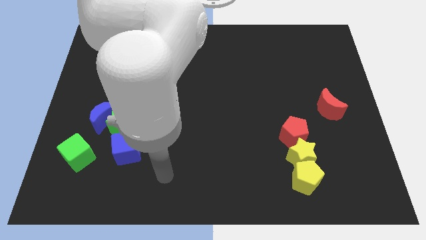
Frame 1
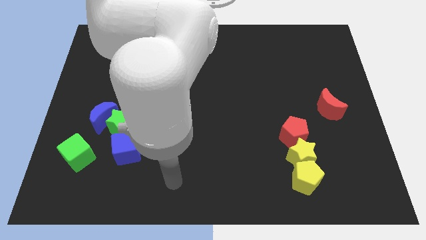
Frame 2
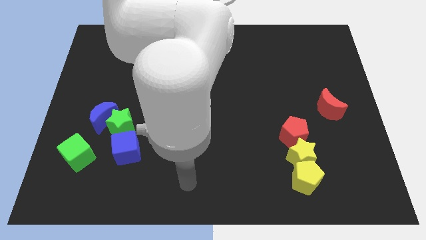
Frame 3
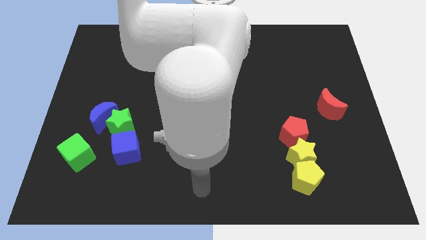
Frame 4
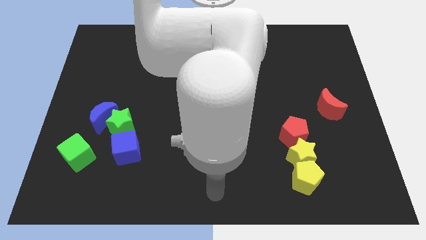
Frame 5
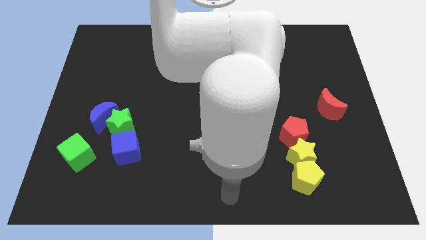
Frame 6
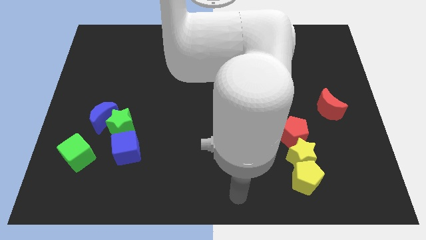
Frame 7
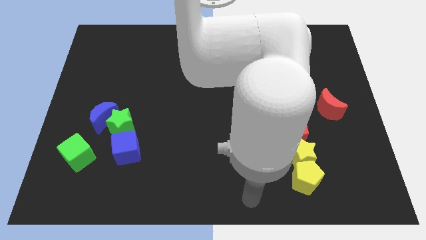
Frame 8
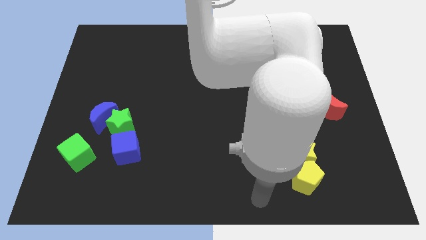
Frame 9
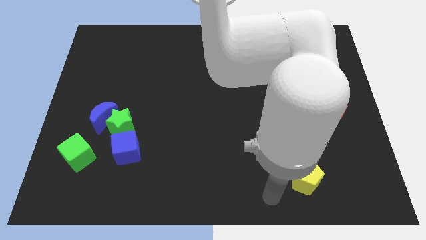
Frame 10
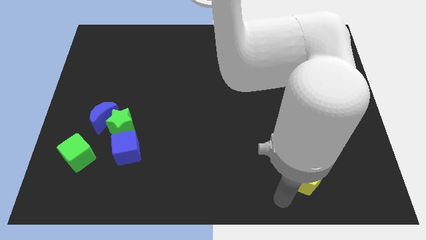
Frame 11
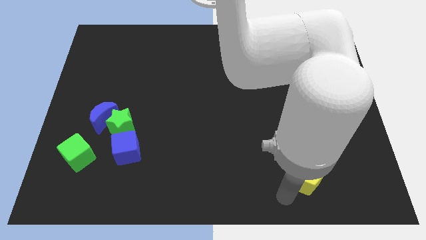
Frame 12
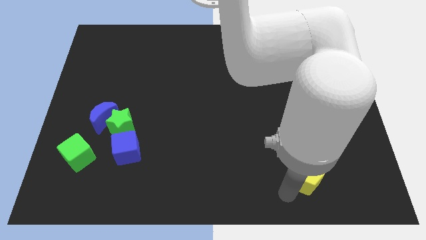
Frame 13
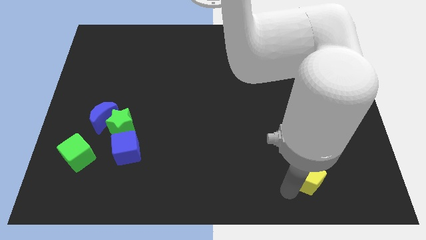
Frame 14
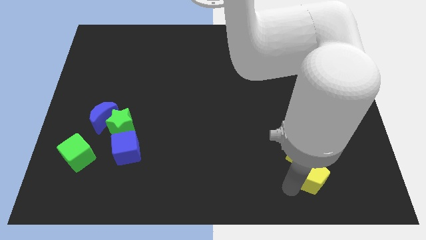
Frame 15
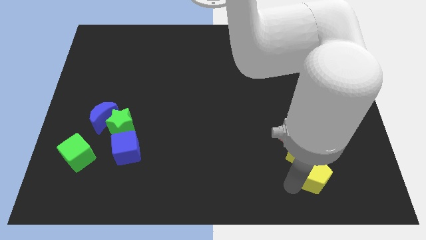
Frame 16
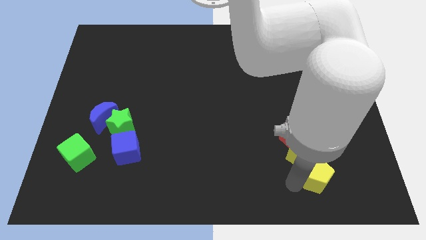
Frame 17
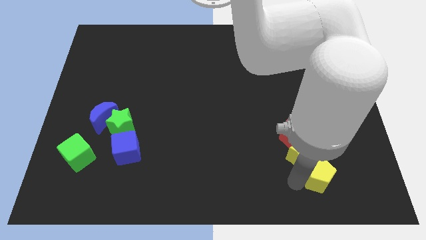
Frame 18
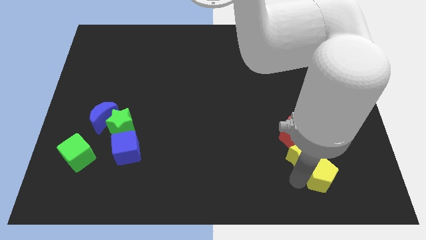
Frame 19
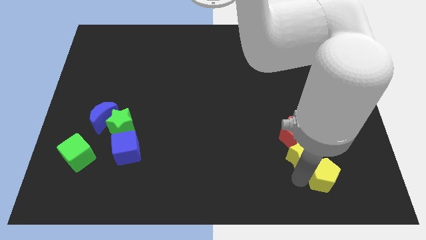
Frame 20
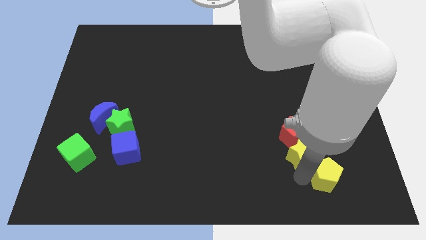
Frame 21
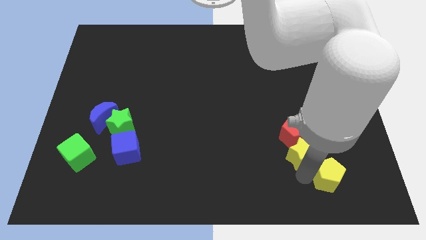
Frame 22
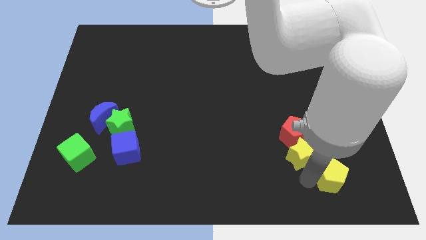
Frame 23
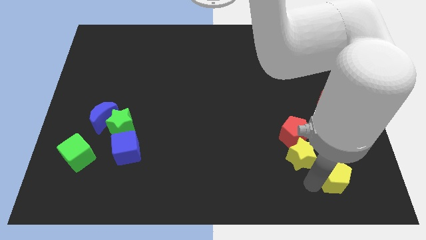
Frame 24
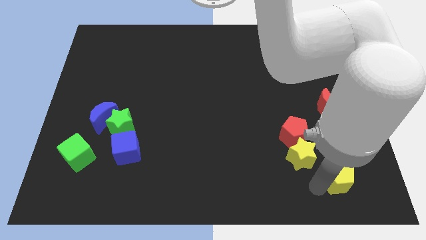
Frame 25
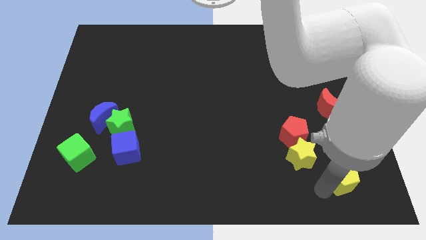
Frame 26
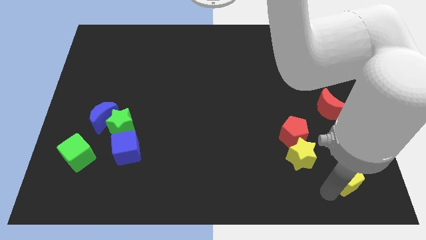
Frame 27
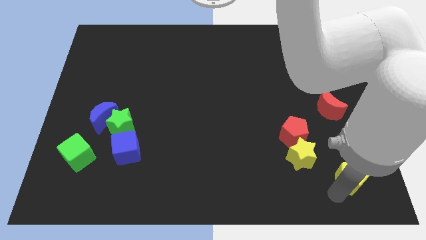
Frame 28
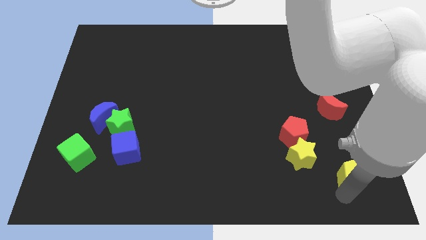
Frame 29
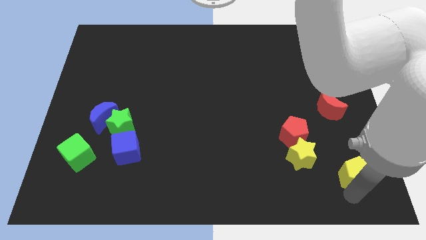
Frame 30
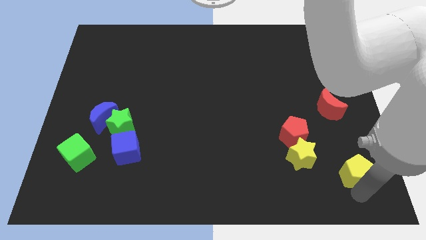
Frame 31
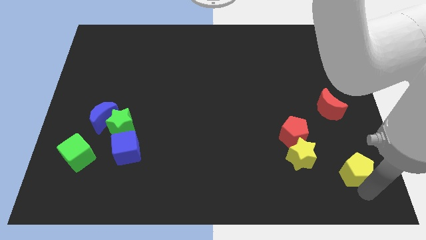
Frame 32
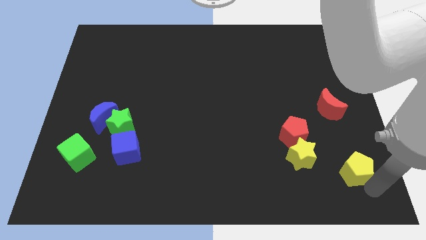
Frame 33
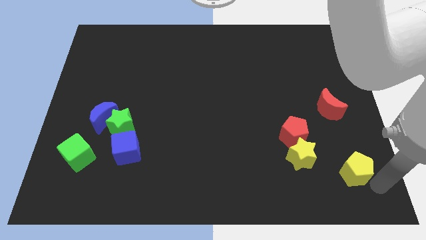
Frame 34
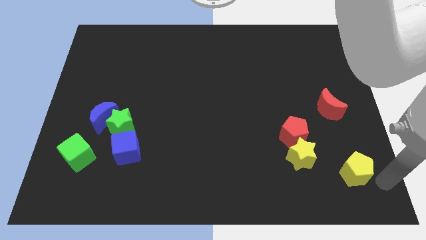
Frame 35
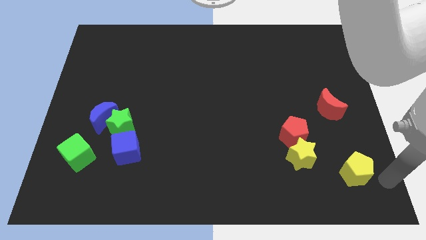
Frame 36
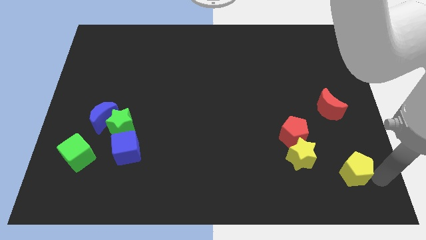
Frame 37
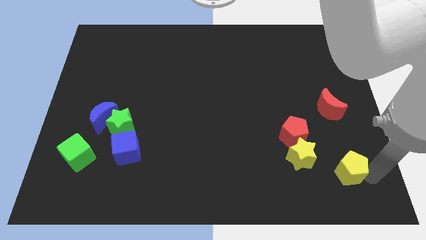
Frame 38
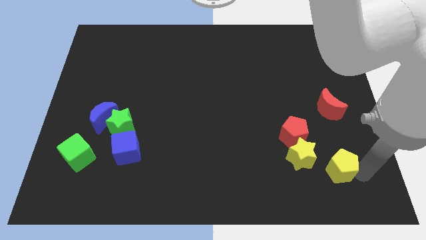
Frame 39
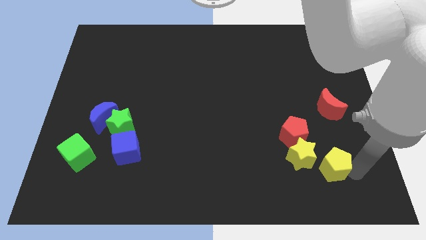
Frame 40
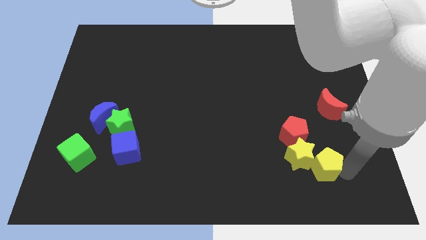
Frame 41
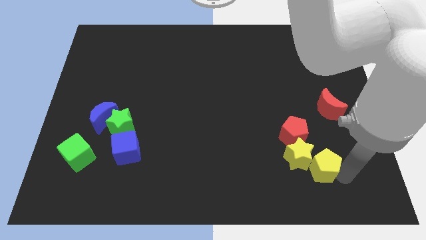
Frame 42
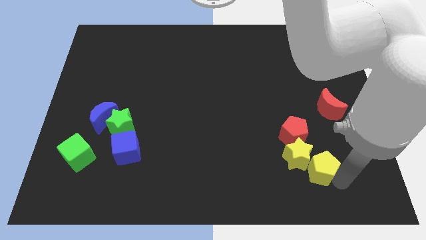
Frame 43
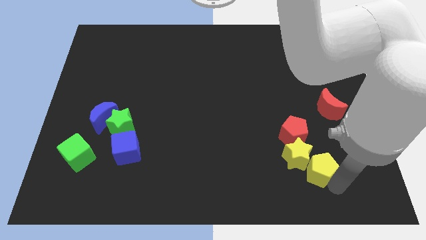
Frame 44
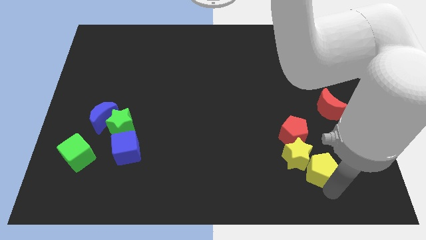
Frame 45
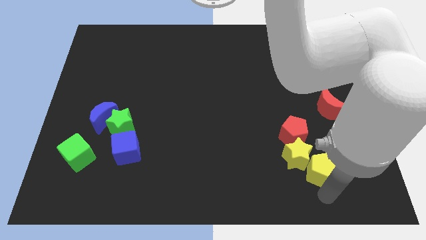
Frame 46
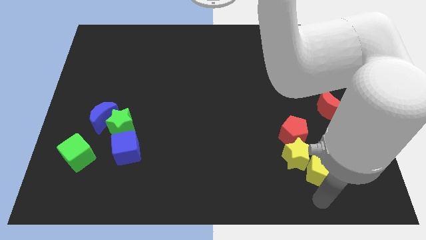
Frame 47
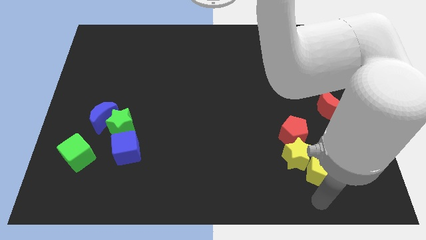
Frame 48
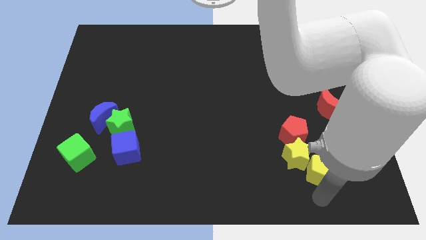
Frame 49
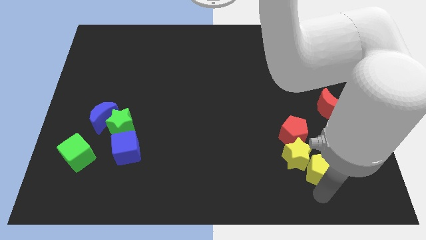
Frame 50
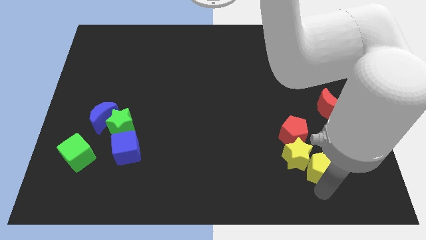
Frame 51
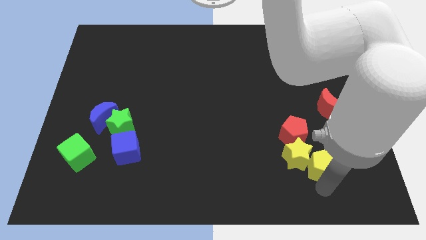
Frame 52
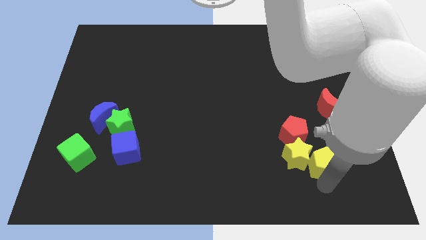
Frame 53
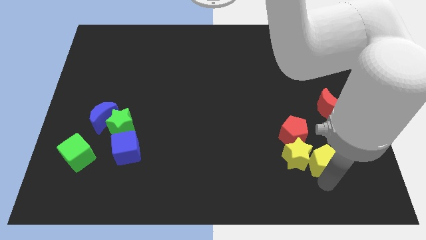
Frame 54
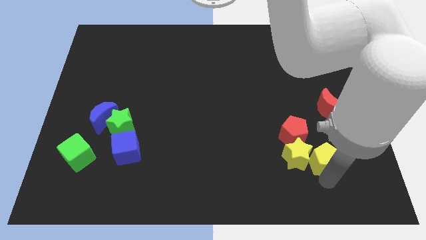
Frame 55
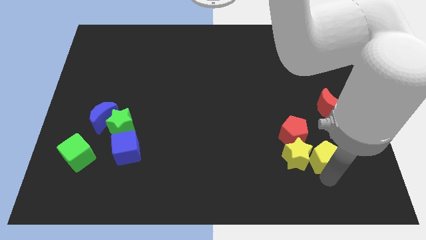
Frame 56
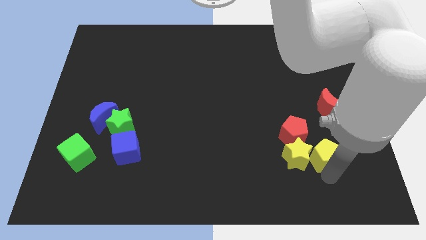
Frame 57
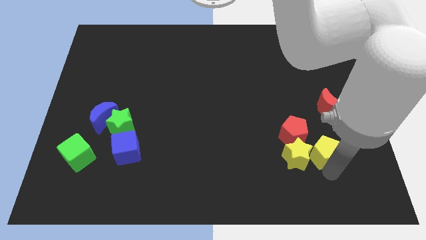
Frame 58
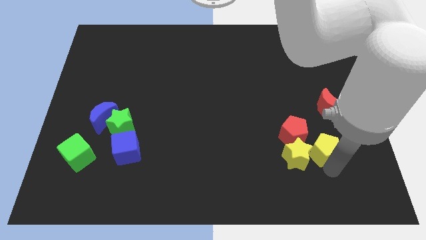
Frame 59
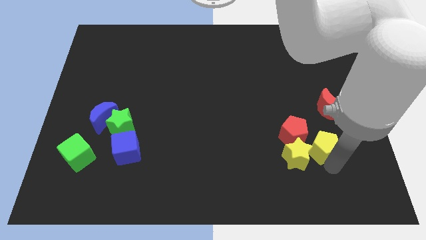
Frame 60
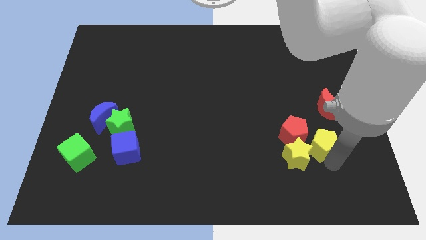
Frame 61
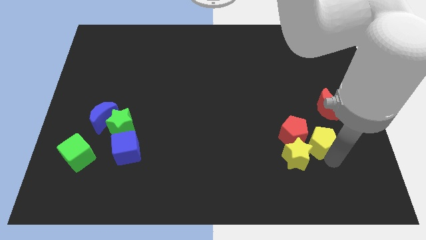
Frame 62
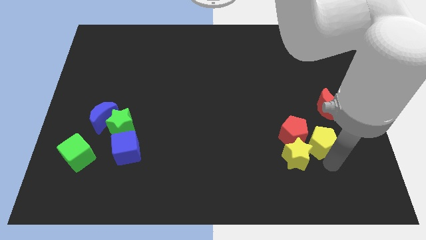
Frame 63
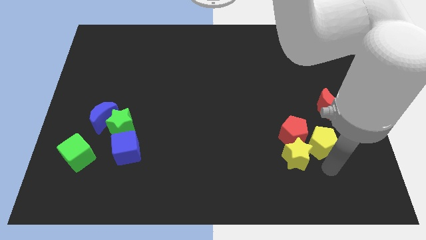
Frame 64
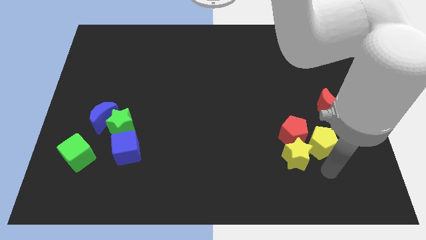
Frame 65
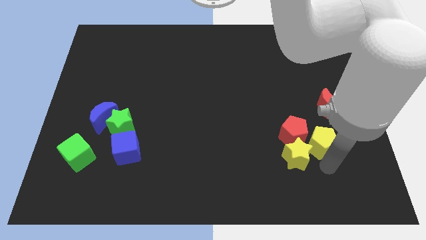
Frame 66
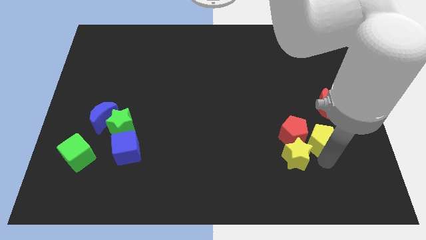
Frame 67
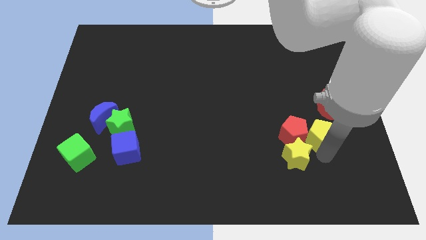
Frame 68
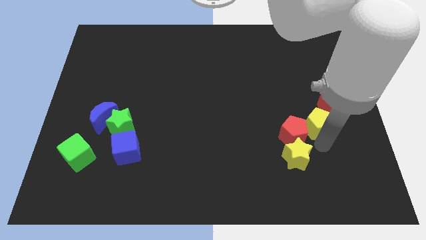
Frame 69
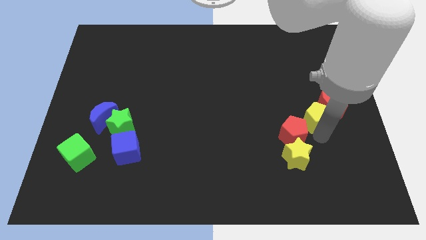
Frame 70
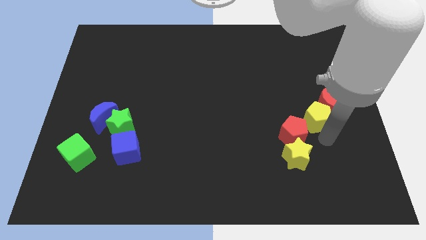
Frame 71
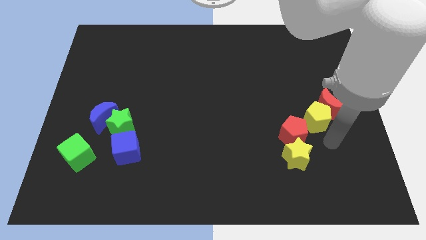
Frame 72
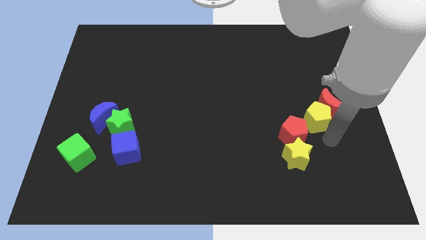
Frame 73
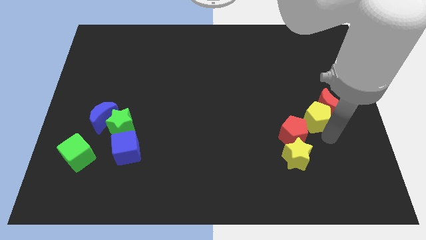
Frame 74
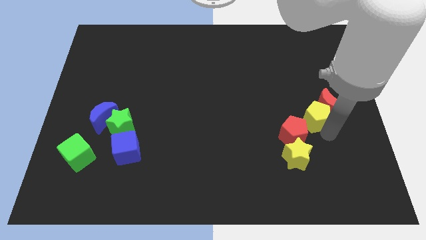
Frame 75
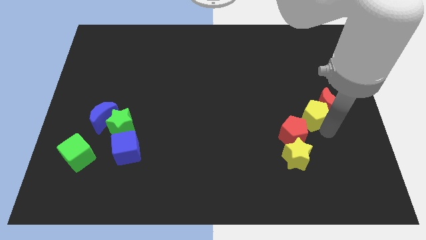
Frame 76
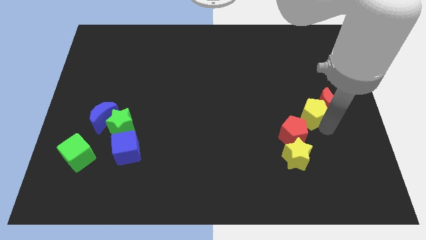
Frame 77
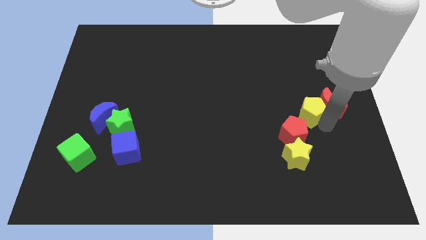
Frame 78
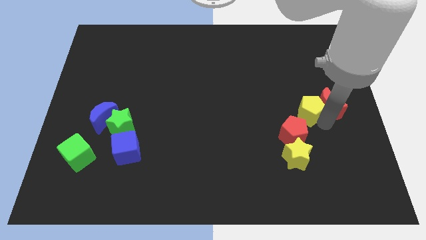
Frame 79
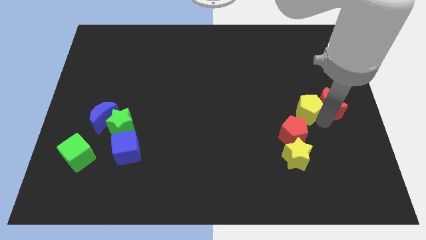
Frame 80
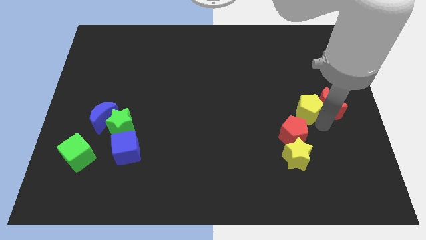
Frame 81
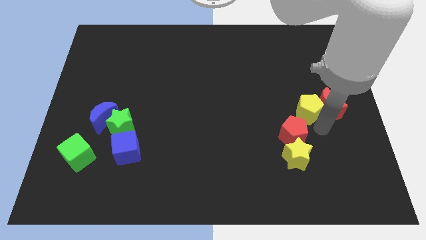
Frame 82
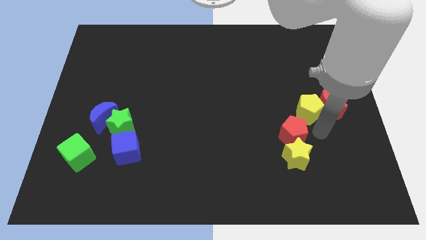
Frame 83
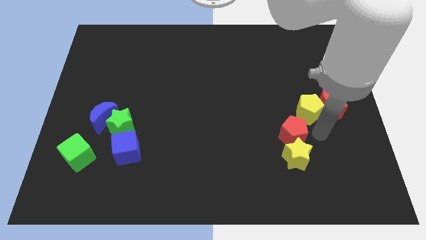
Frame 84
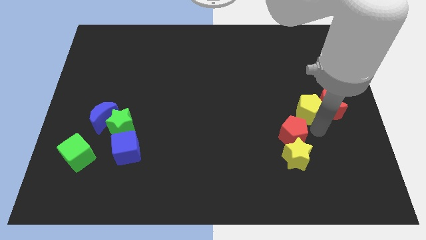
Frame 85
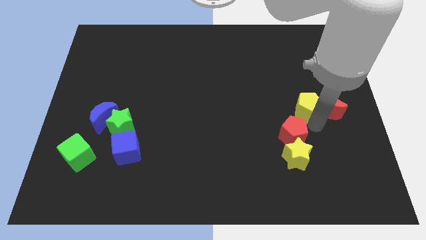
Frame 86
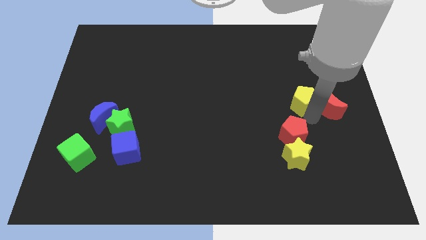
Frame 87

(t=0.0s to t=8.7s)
slide the yellow pentagon upwards
